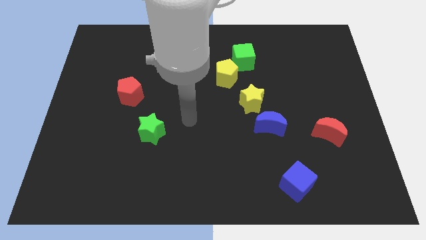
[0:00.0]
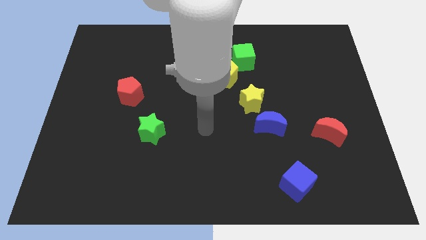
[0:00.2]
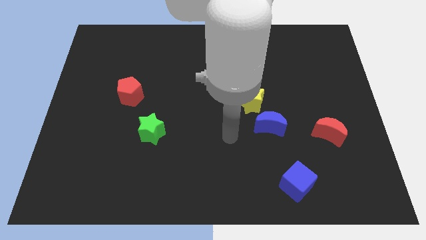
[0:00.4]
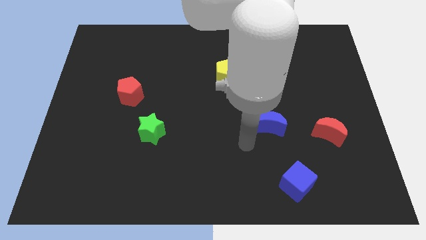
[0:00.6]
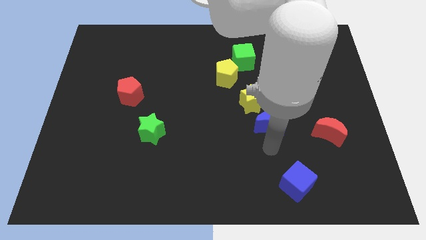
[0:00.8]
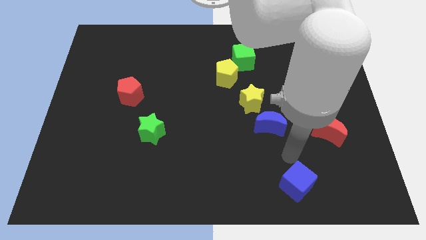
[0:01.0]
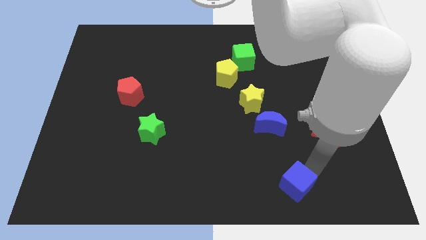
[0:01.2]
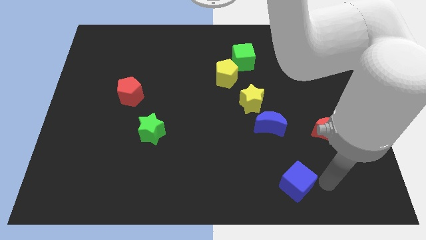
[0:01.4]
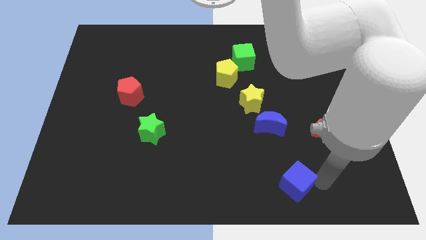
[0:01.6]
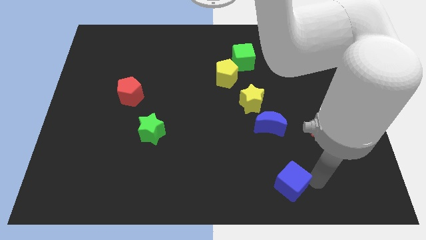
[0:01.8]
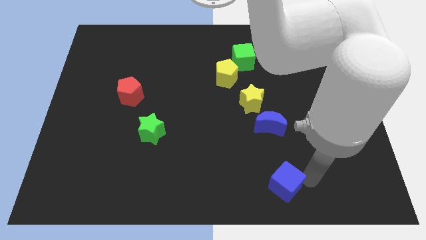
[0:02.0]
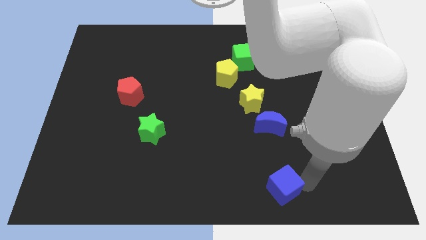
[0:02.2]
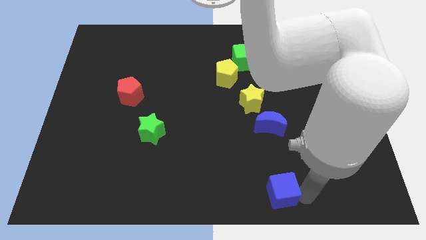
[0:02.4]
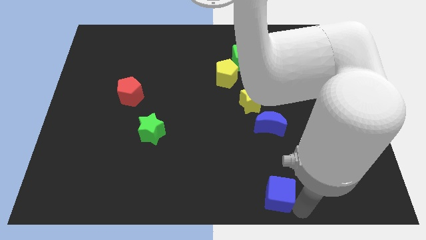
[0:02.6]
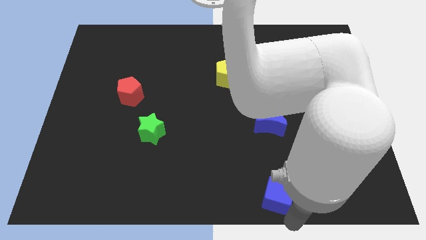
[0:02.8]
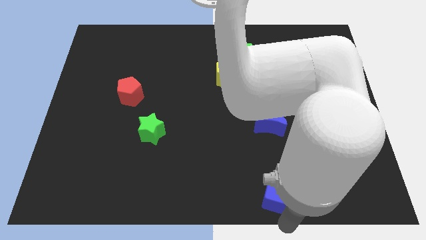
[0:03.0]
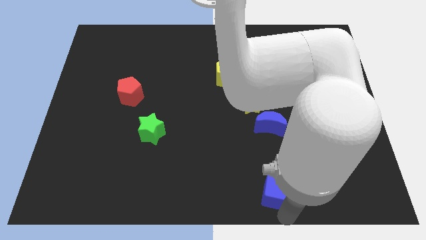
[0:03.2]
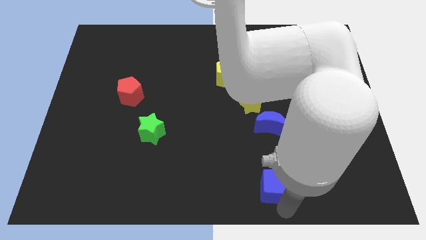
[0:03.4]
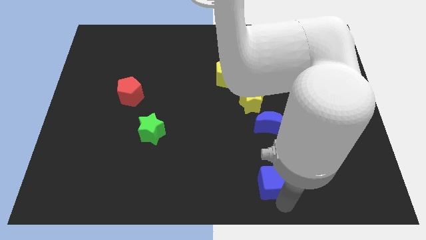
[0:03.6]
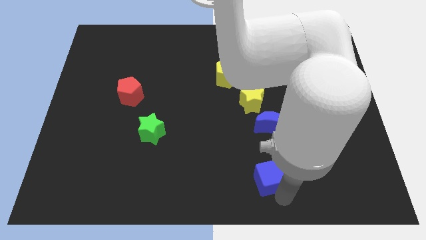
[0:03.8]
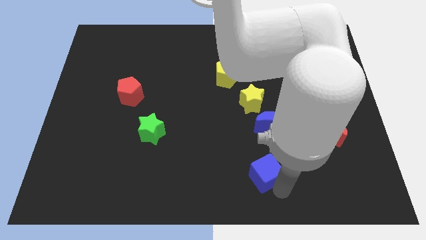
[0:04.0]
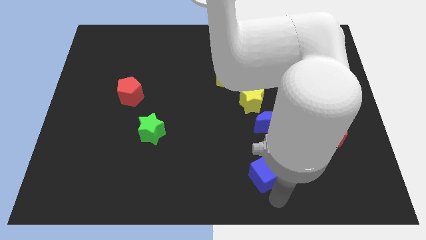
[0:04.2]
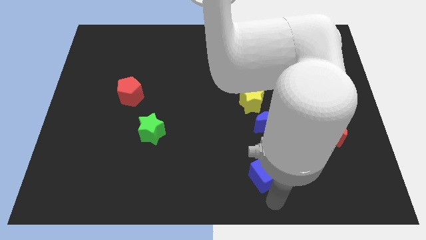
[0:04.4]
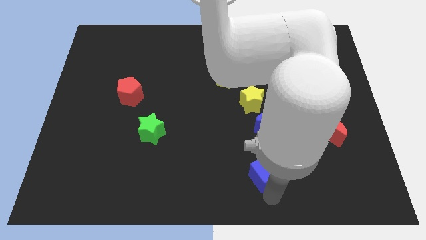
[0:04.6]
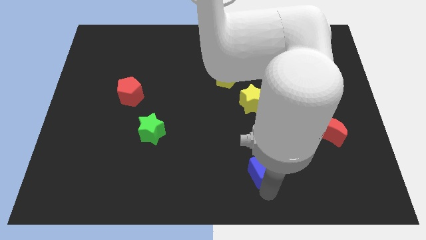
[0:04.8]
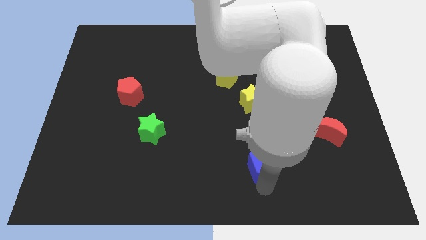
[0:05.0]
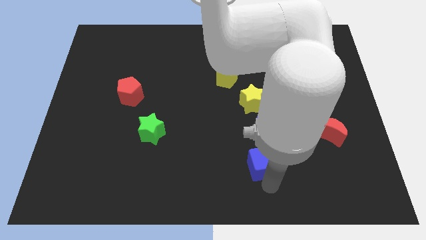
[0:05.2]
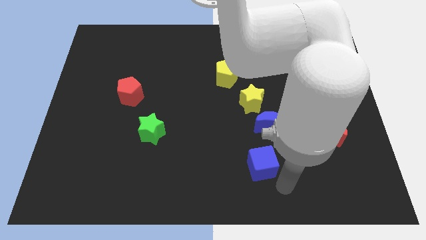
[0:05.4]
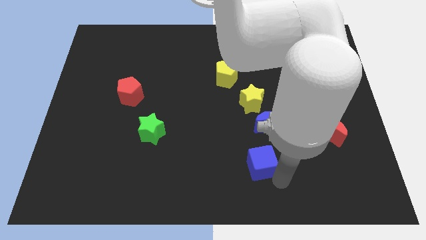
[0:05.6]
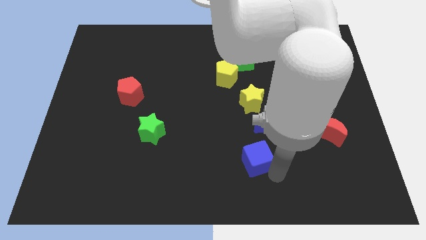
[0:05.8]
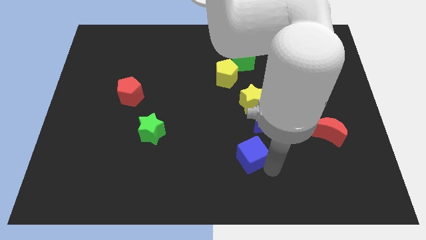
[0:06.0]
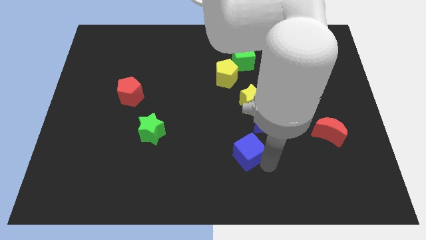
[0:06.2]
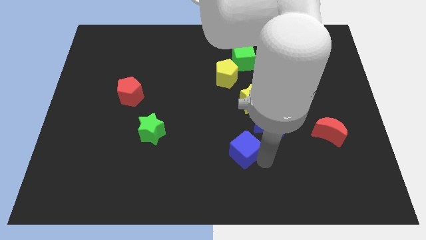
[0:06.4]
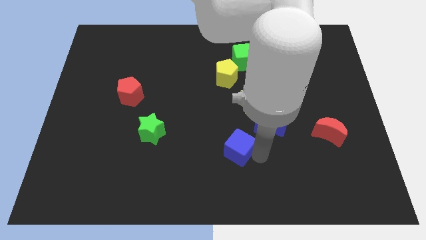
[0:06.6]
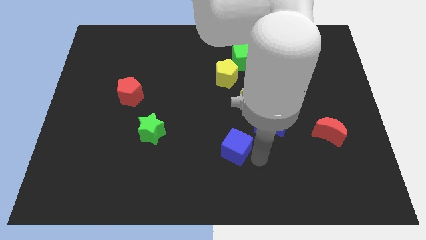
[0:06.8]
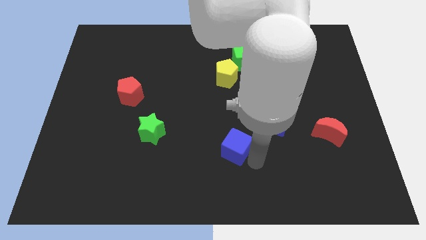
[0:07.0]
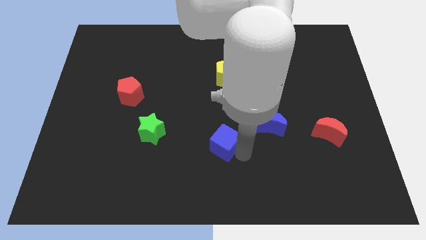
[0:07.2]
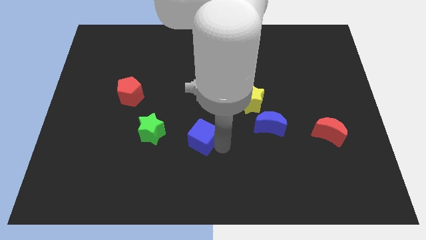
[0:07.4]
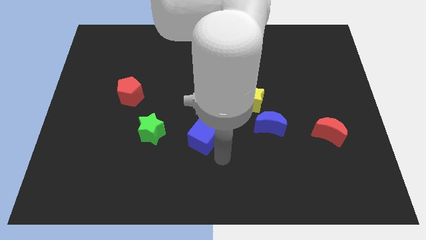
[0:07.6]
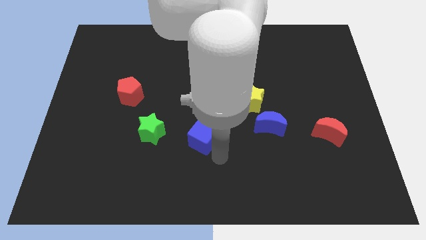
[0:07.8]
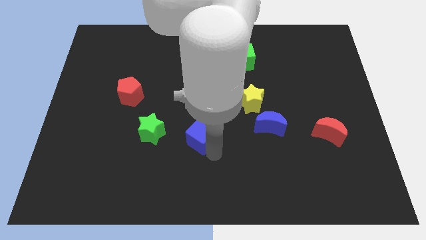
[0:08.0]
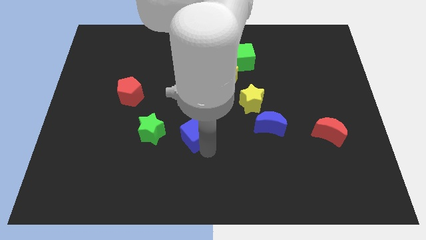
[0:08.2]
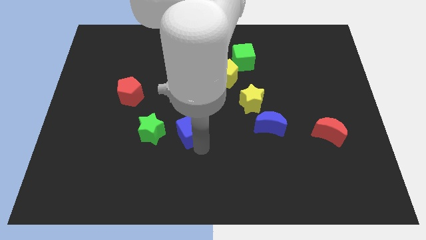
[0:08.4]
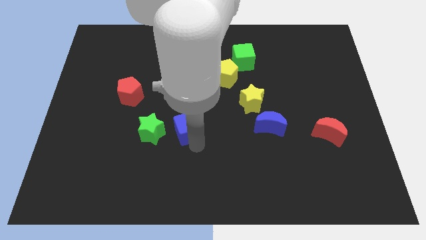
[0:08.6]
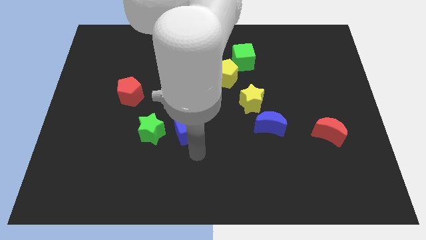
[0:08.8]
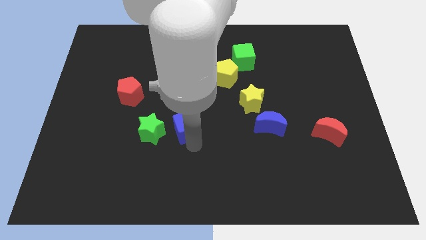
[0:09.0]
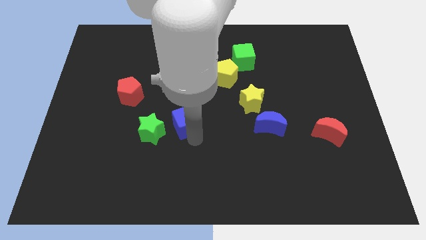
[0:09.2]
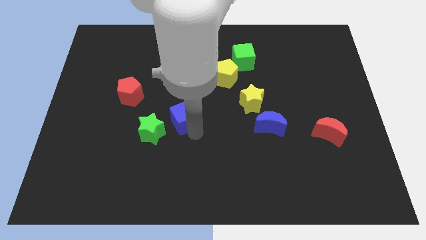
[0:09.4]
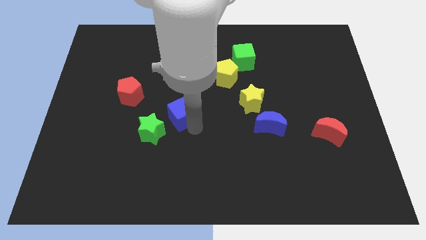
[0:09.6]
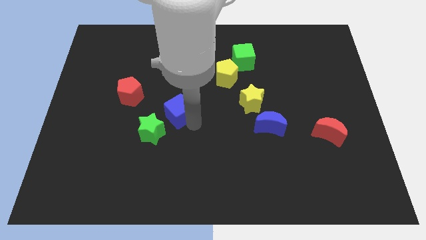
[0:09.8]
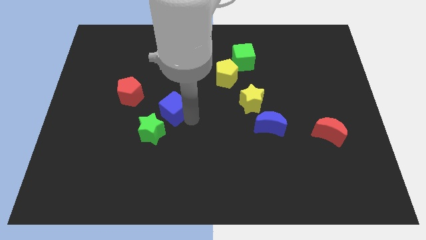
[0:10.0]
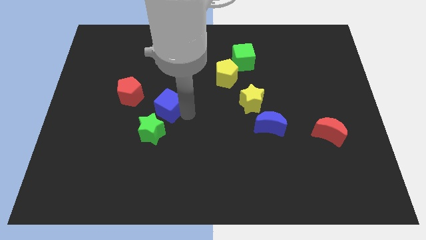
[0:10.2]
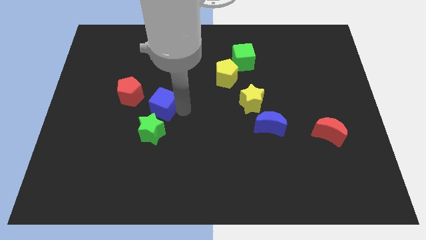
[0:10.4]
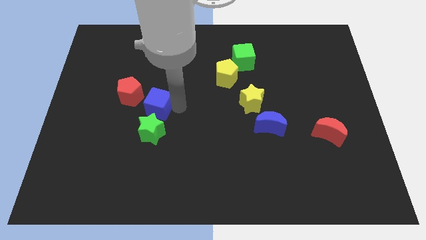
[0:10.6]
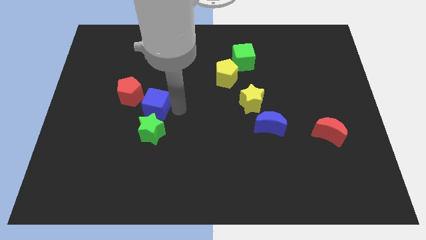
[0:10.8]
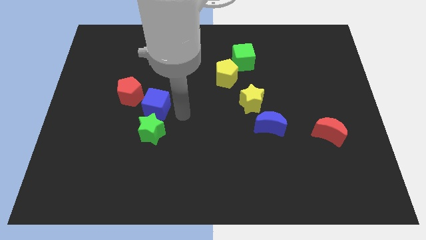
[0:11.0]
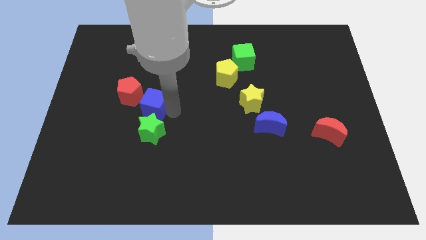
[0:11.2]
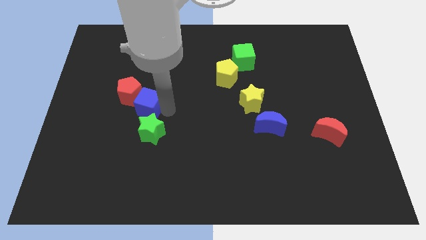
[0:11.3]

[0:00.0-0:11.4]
push the blue cube close to the red pentagon

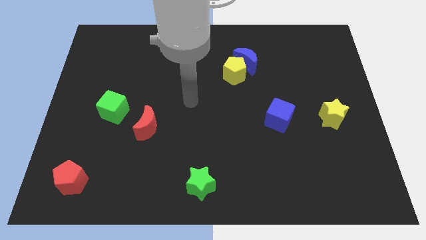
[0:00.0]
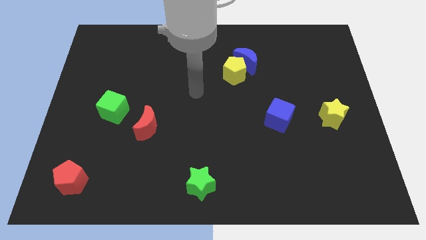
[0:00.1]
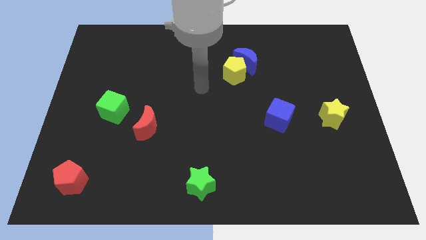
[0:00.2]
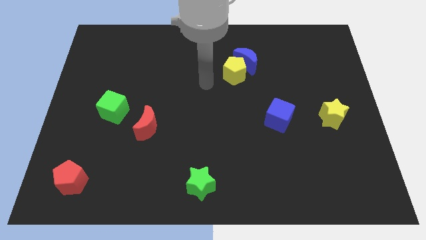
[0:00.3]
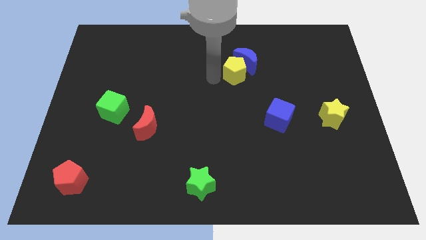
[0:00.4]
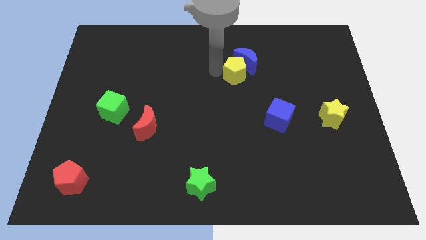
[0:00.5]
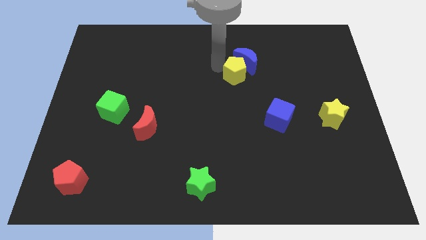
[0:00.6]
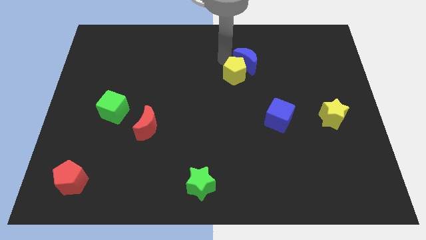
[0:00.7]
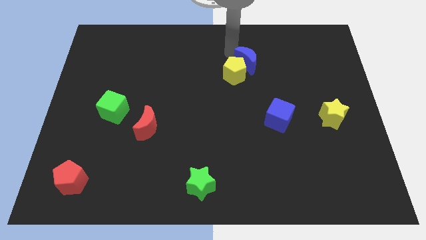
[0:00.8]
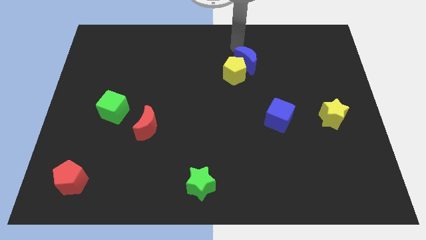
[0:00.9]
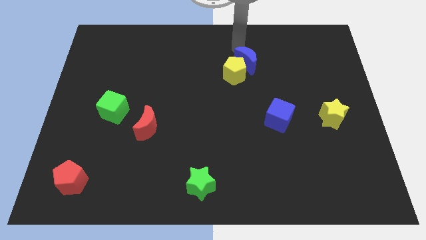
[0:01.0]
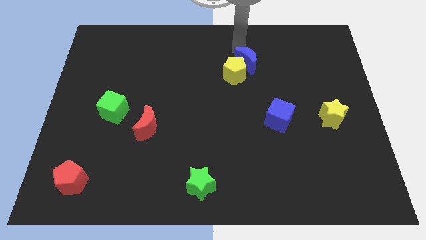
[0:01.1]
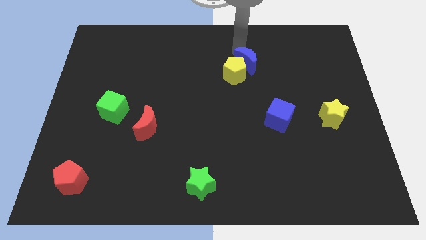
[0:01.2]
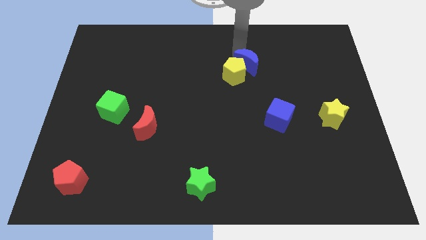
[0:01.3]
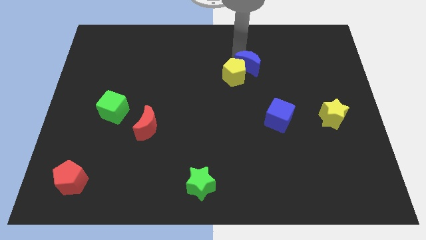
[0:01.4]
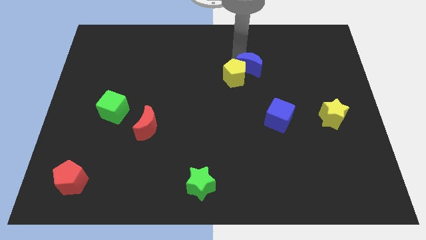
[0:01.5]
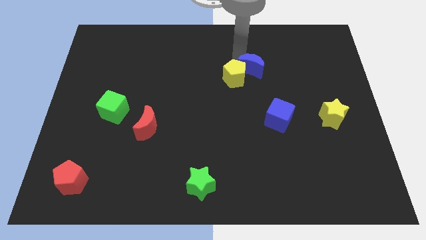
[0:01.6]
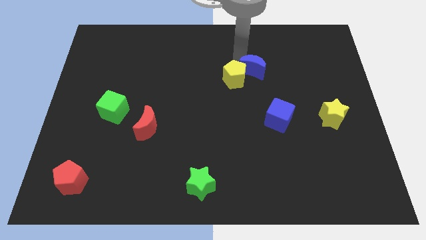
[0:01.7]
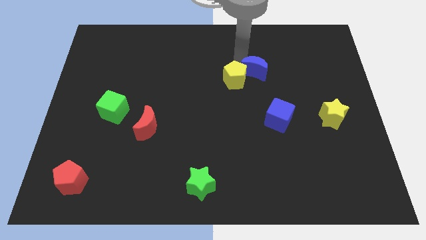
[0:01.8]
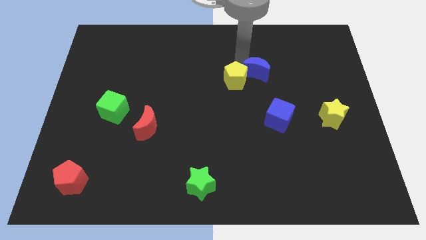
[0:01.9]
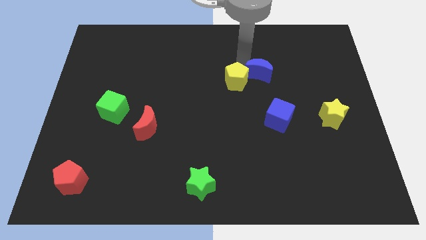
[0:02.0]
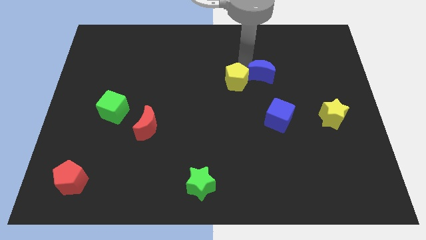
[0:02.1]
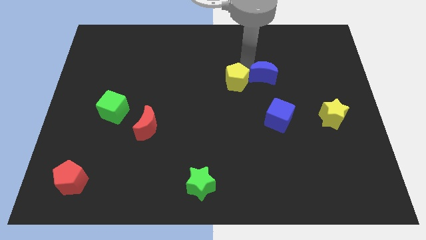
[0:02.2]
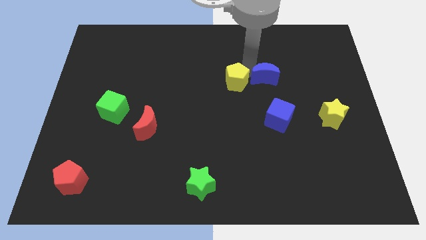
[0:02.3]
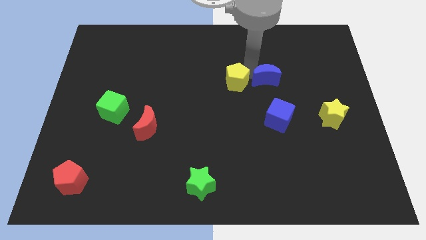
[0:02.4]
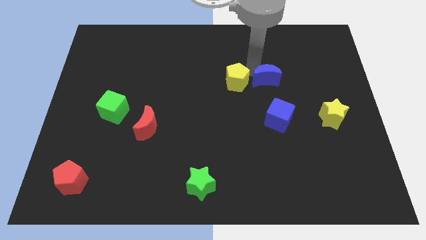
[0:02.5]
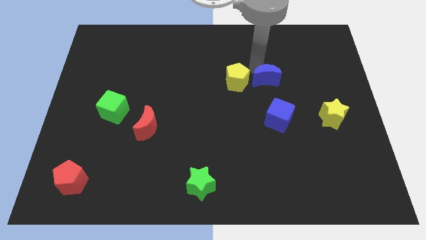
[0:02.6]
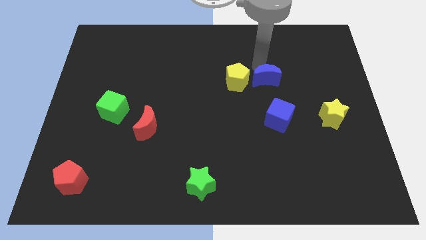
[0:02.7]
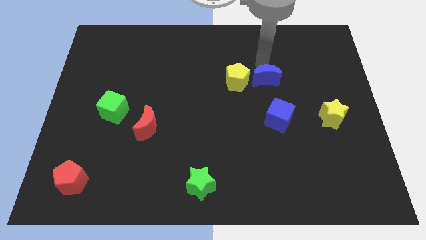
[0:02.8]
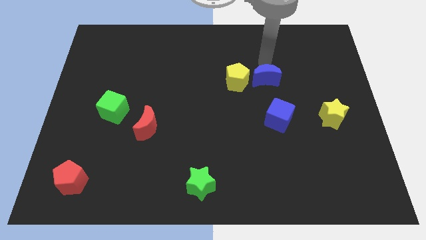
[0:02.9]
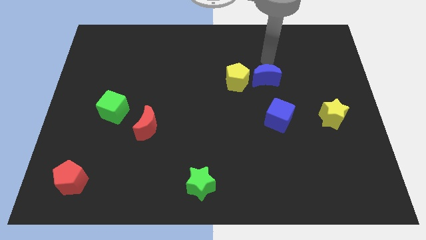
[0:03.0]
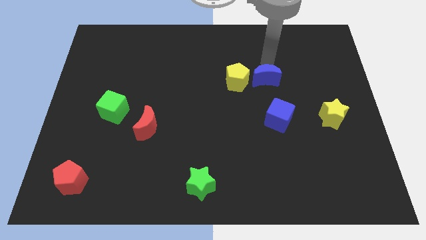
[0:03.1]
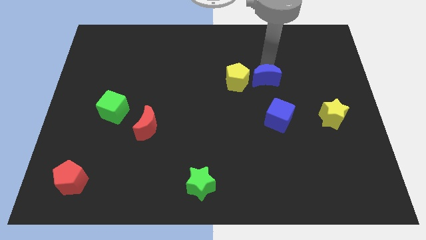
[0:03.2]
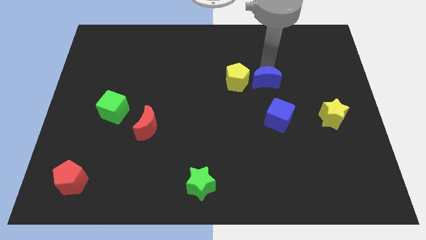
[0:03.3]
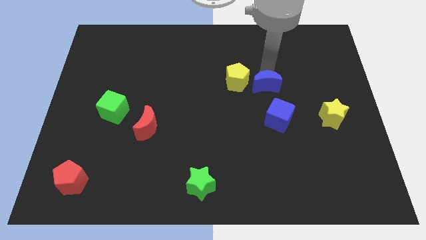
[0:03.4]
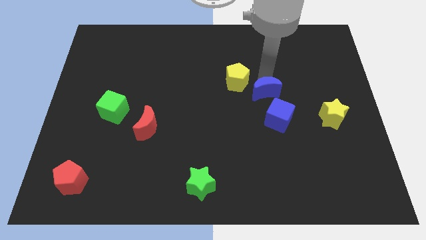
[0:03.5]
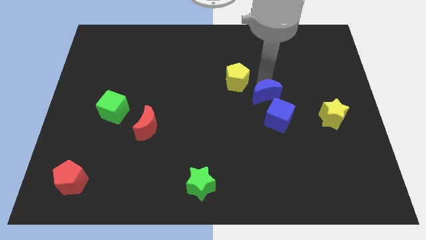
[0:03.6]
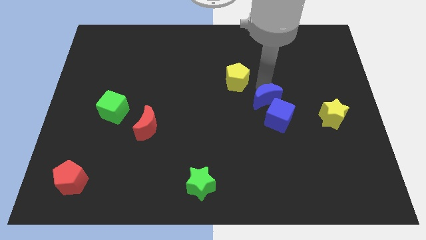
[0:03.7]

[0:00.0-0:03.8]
push the blue moon towards the blue cube
